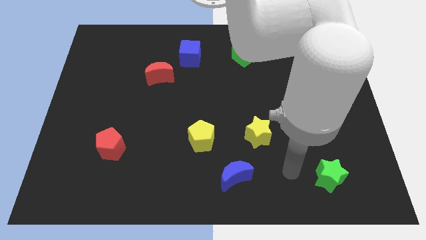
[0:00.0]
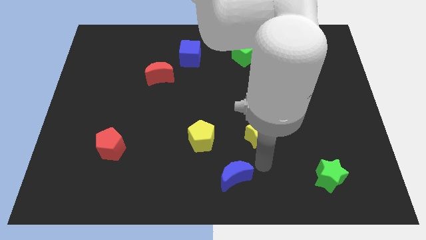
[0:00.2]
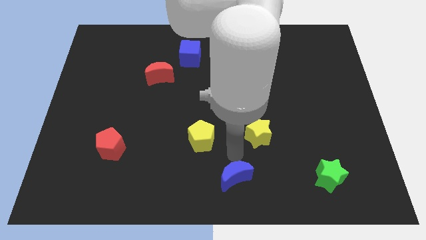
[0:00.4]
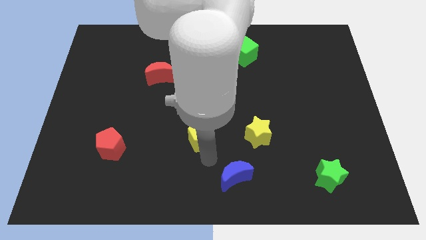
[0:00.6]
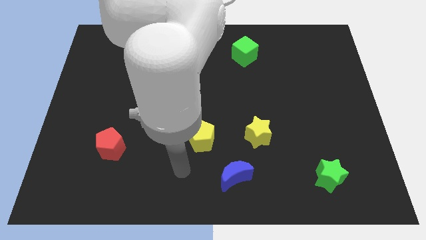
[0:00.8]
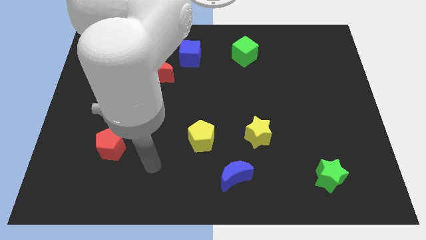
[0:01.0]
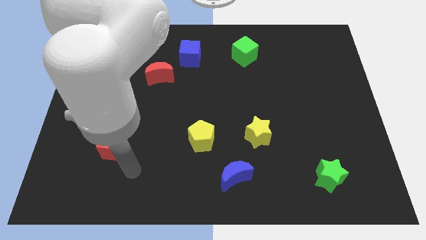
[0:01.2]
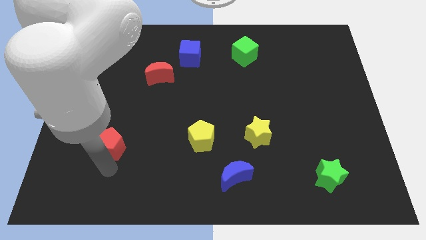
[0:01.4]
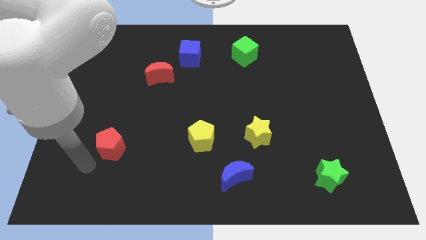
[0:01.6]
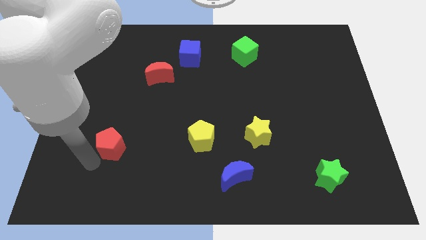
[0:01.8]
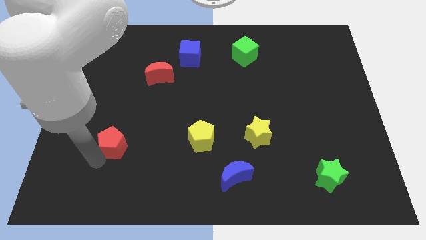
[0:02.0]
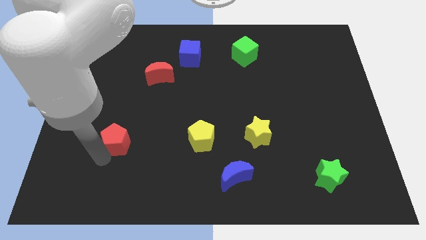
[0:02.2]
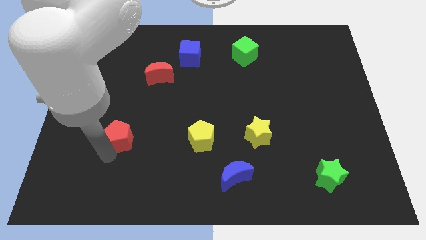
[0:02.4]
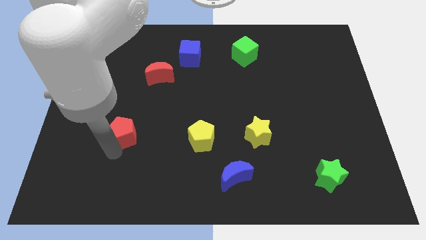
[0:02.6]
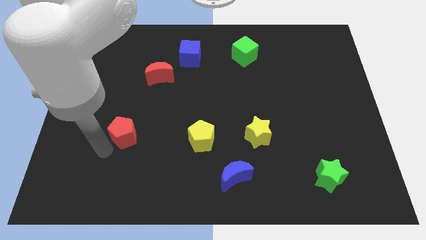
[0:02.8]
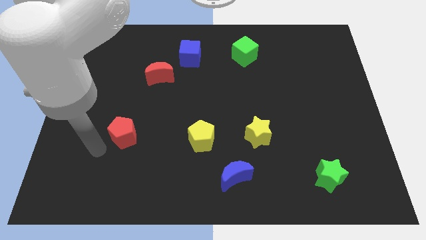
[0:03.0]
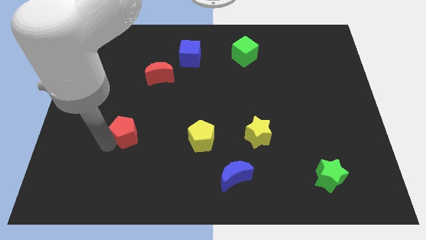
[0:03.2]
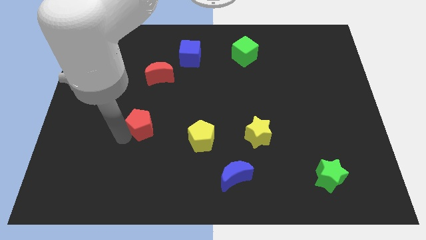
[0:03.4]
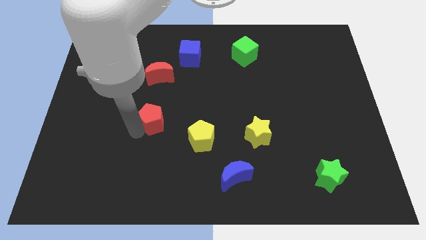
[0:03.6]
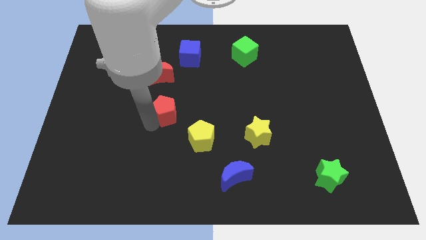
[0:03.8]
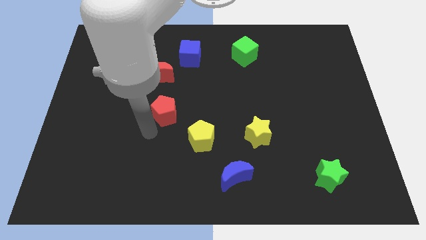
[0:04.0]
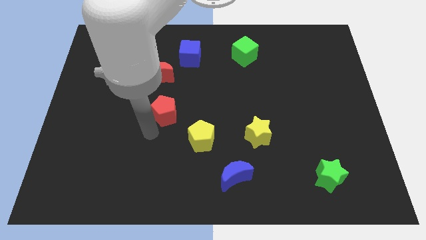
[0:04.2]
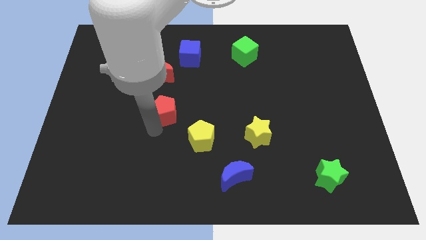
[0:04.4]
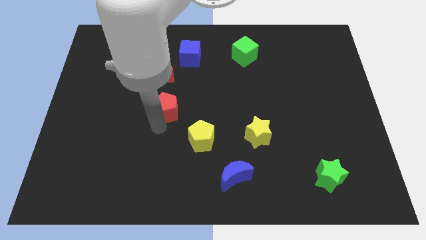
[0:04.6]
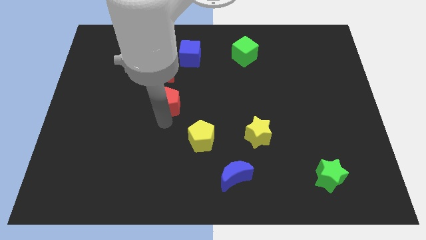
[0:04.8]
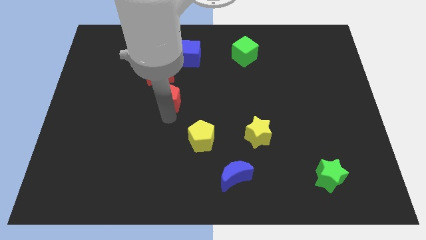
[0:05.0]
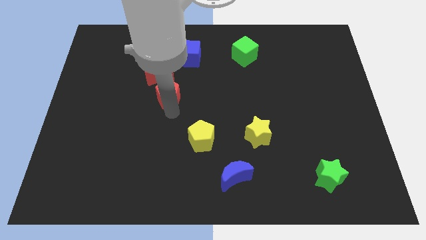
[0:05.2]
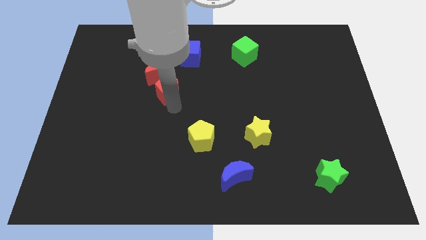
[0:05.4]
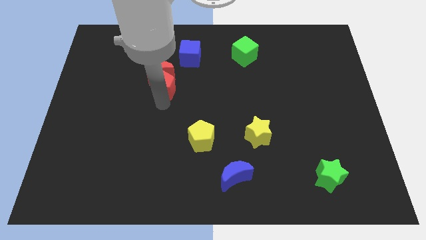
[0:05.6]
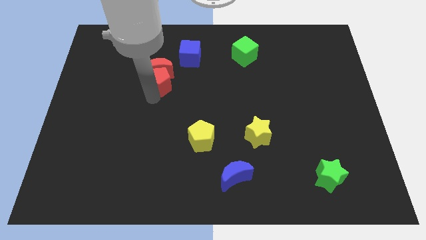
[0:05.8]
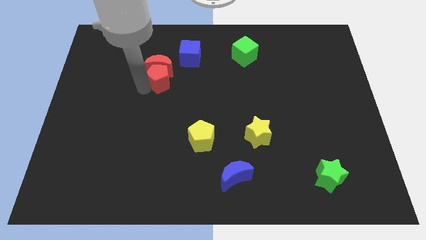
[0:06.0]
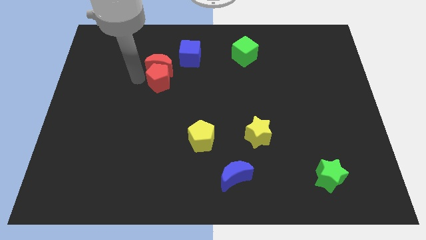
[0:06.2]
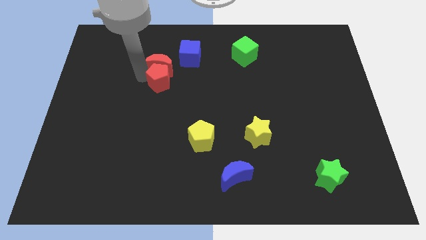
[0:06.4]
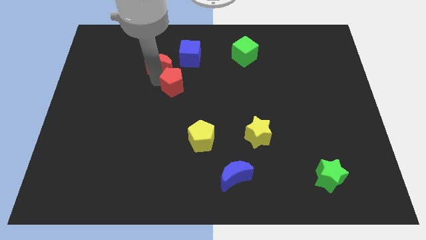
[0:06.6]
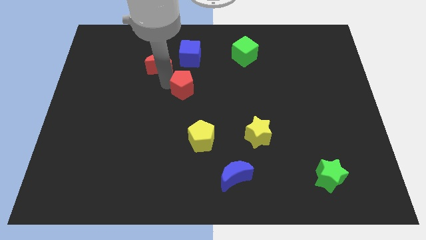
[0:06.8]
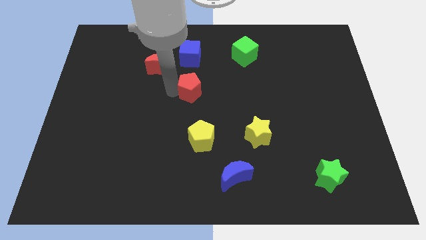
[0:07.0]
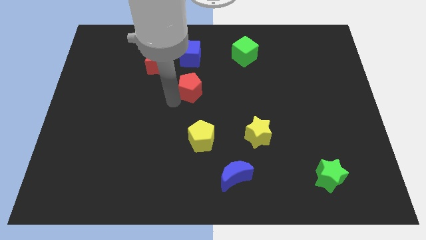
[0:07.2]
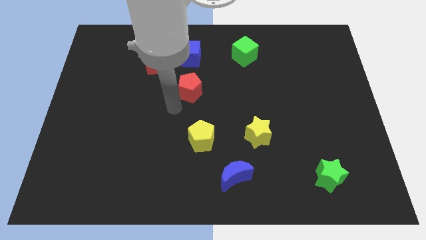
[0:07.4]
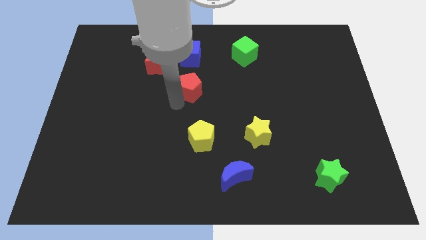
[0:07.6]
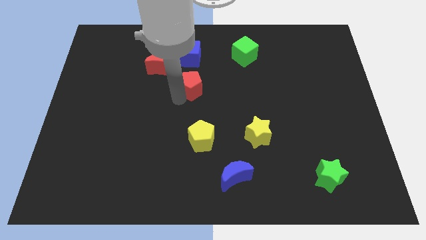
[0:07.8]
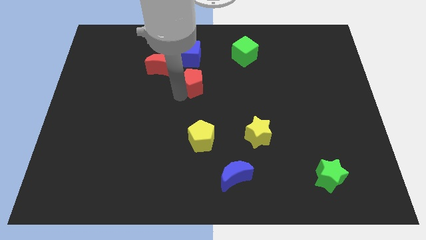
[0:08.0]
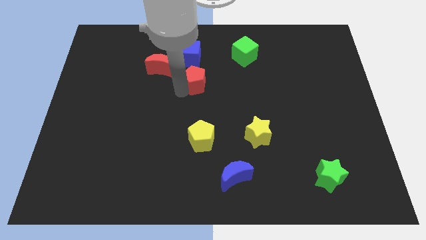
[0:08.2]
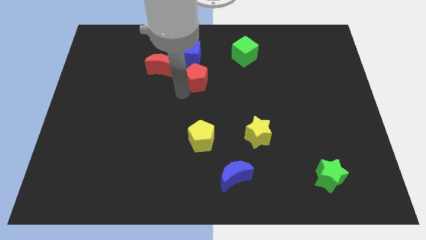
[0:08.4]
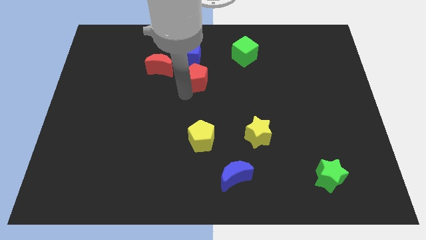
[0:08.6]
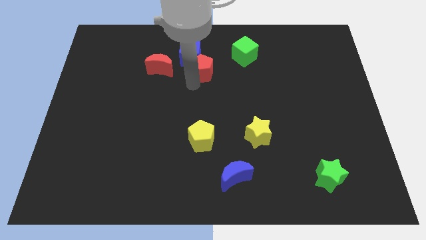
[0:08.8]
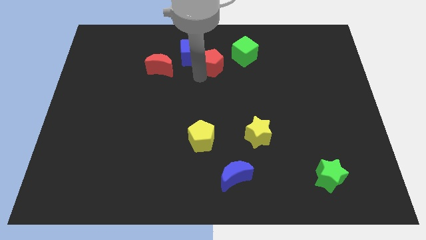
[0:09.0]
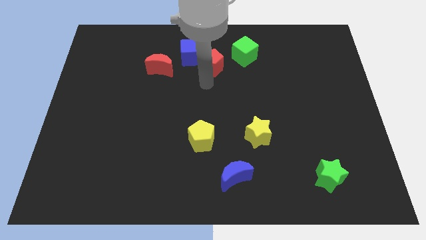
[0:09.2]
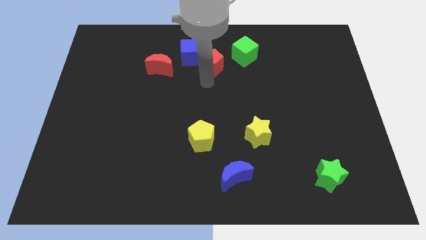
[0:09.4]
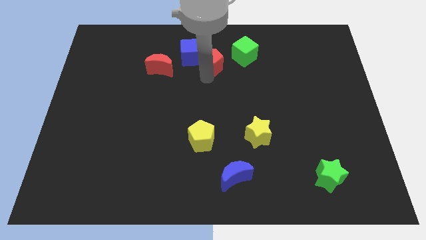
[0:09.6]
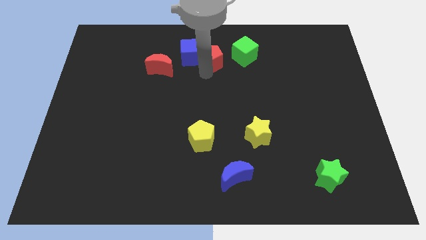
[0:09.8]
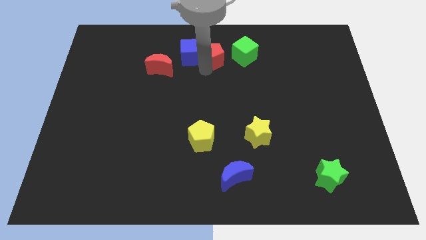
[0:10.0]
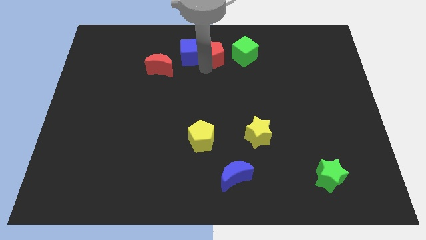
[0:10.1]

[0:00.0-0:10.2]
push the red pentagon to the top

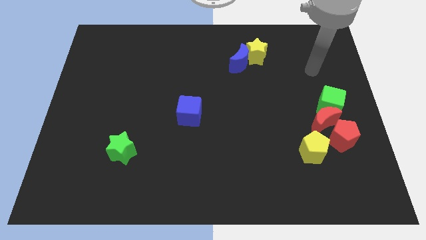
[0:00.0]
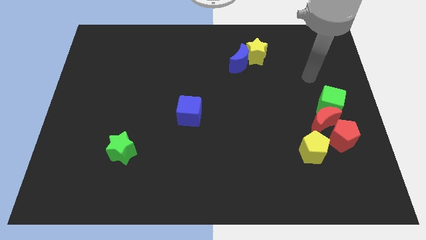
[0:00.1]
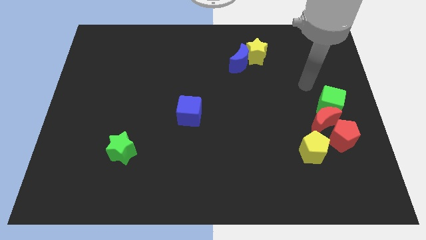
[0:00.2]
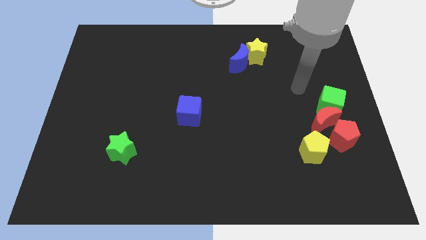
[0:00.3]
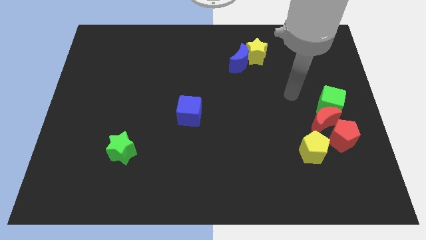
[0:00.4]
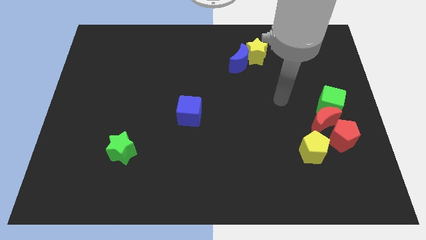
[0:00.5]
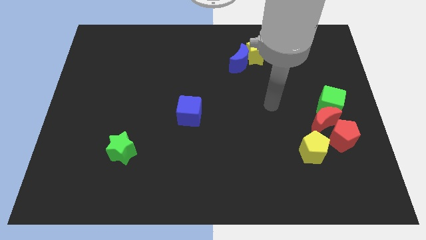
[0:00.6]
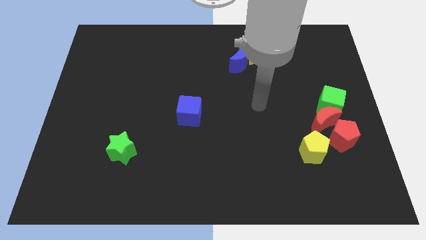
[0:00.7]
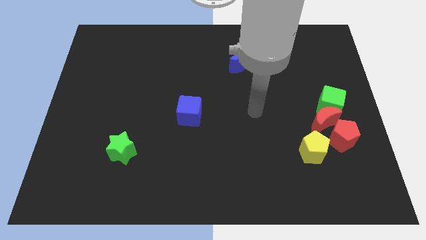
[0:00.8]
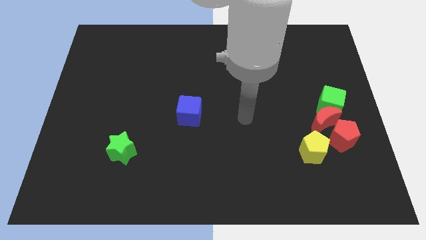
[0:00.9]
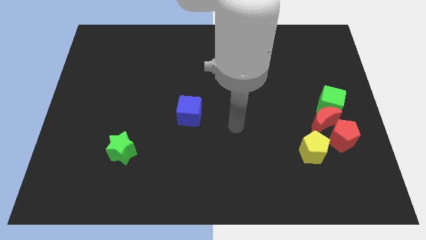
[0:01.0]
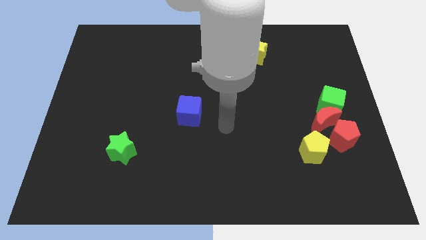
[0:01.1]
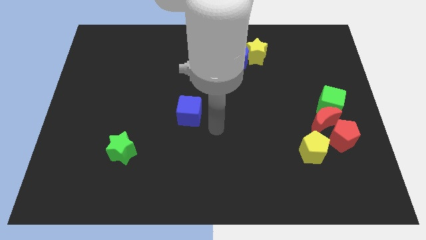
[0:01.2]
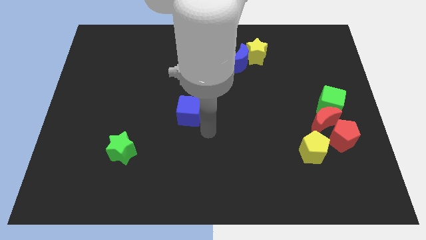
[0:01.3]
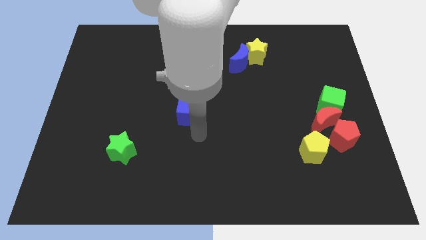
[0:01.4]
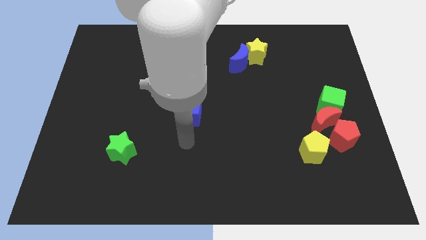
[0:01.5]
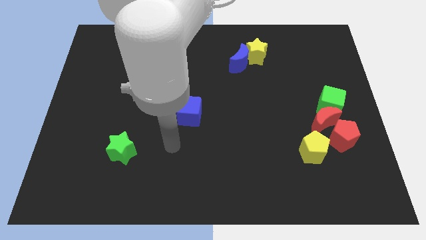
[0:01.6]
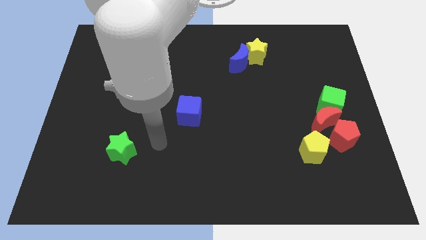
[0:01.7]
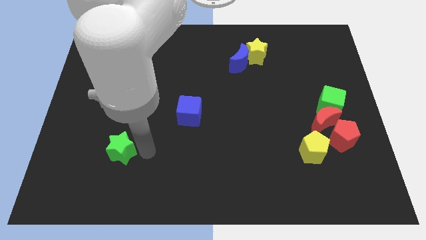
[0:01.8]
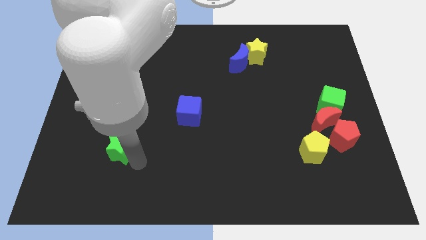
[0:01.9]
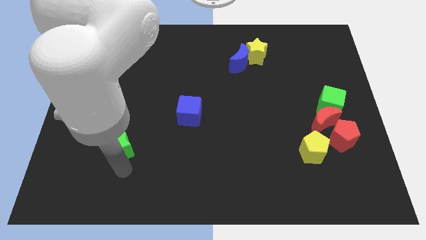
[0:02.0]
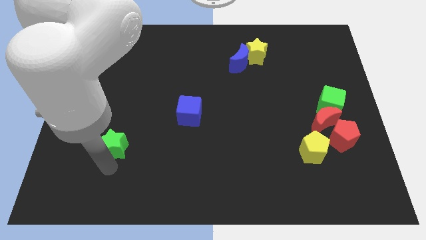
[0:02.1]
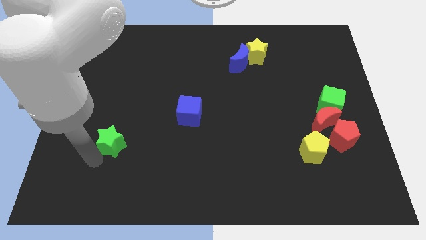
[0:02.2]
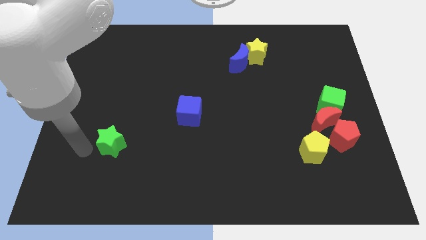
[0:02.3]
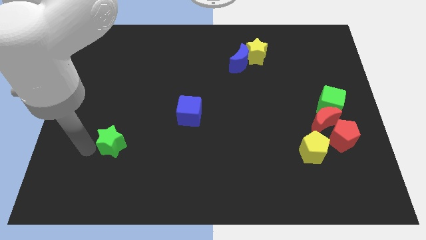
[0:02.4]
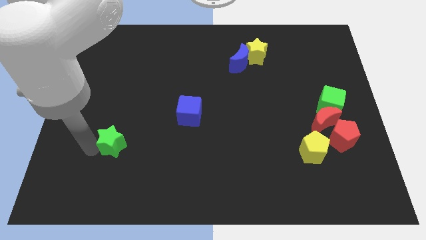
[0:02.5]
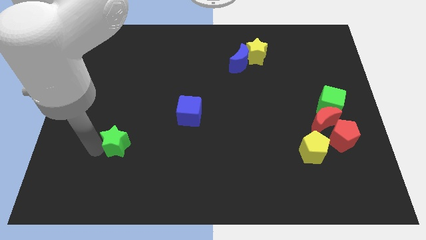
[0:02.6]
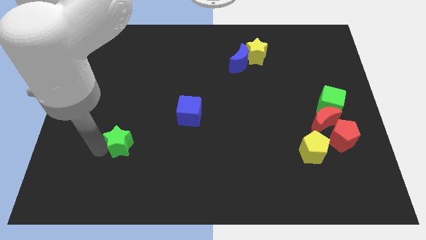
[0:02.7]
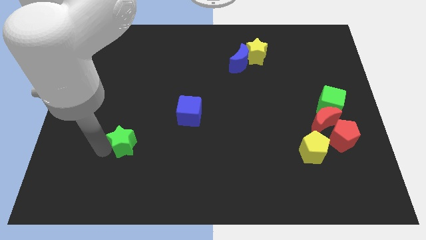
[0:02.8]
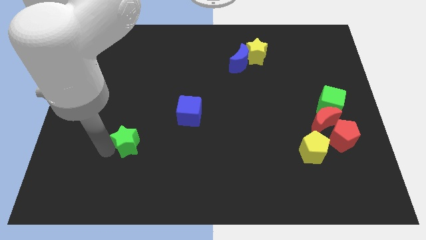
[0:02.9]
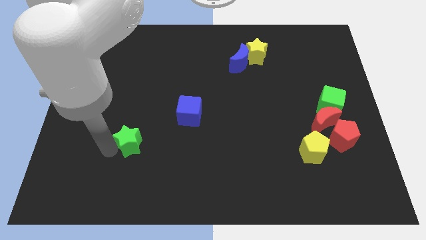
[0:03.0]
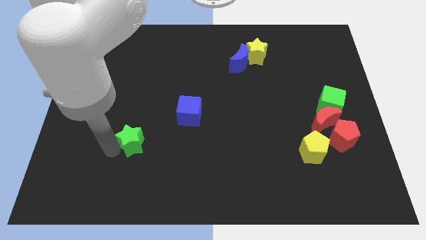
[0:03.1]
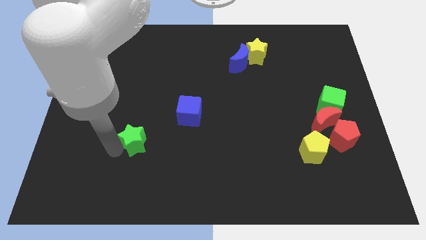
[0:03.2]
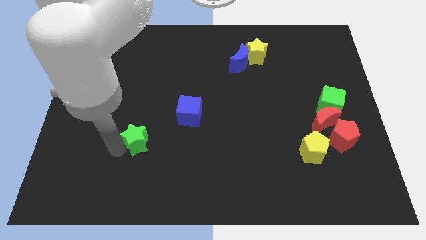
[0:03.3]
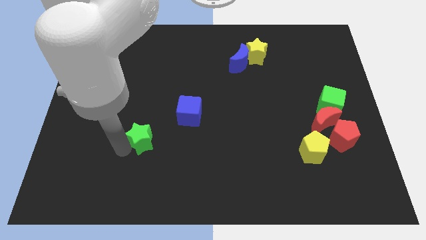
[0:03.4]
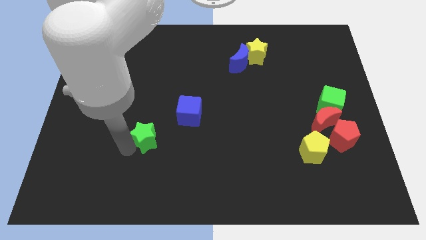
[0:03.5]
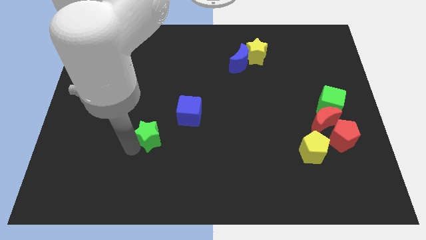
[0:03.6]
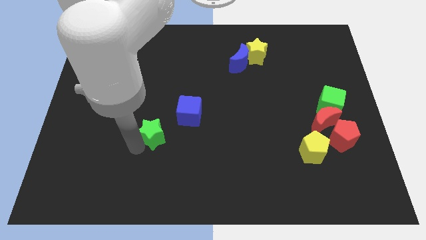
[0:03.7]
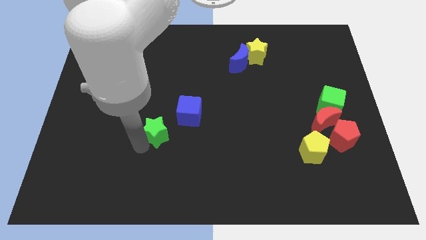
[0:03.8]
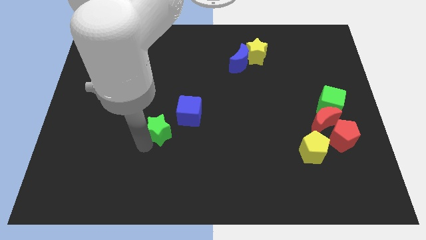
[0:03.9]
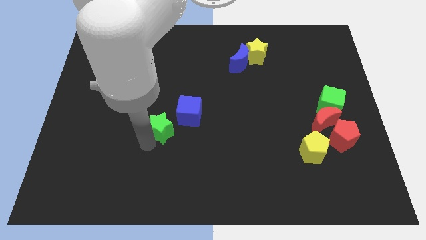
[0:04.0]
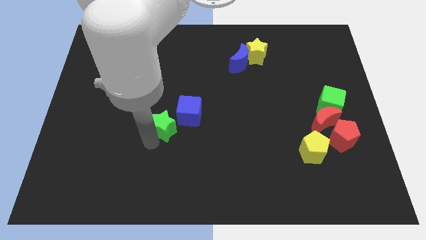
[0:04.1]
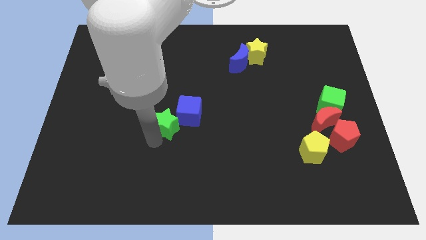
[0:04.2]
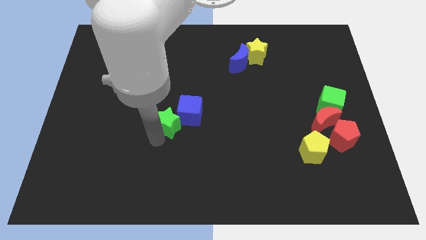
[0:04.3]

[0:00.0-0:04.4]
slide the green star to the center
